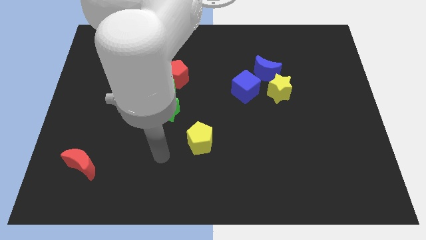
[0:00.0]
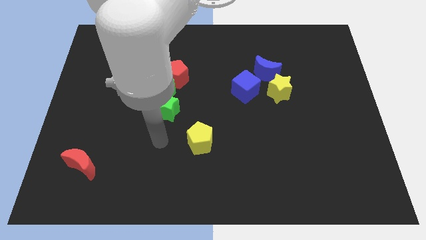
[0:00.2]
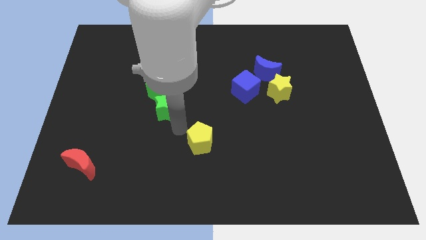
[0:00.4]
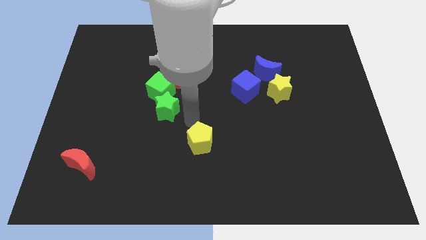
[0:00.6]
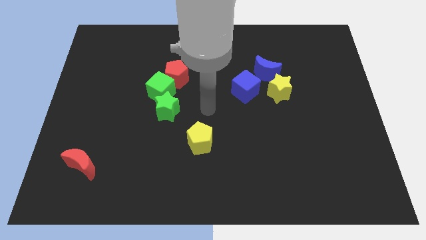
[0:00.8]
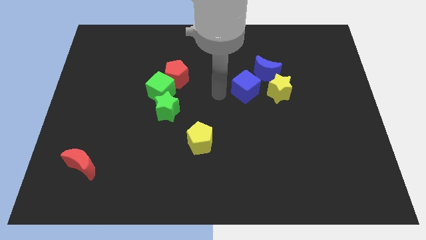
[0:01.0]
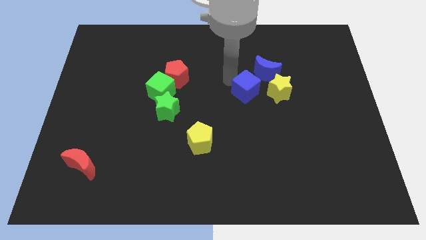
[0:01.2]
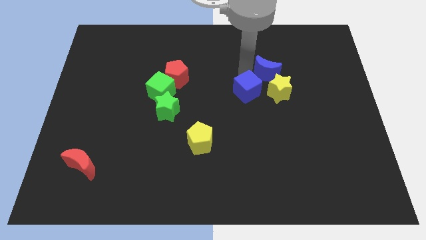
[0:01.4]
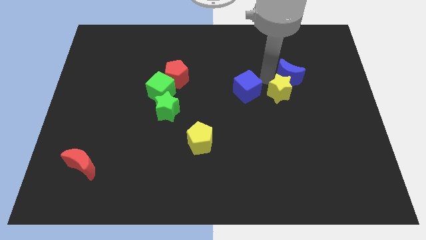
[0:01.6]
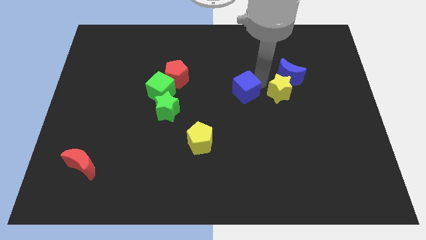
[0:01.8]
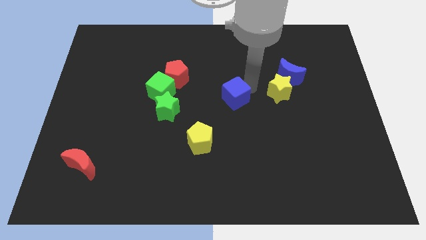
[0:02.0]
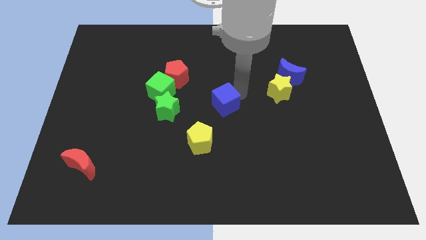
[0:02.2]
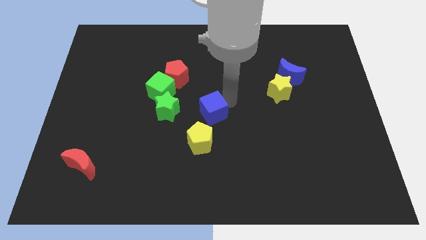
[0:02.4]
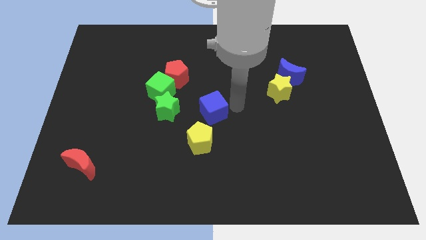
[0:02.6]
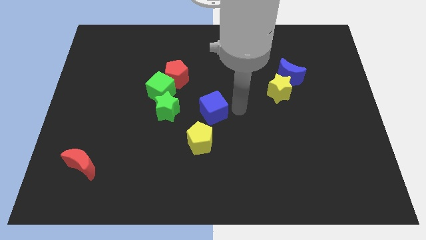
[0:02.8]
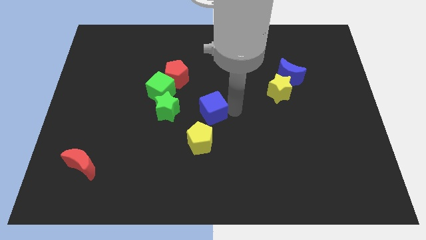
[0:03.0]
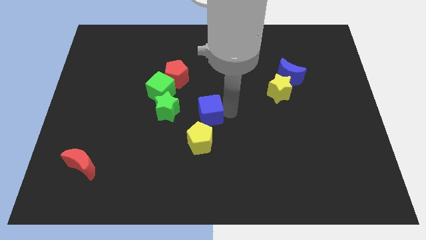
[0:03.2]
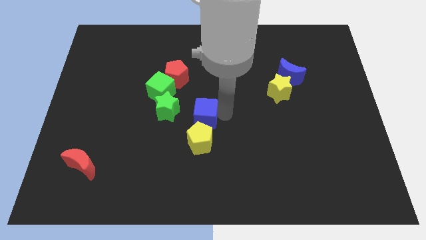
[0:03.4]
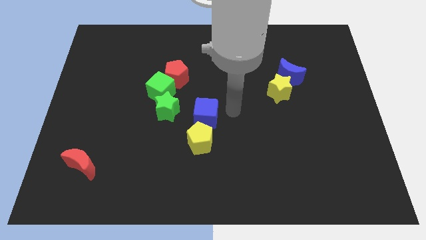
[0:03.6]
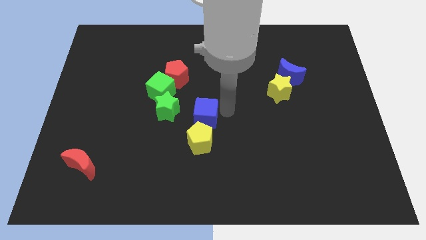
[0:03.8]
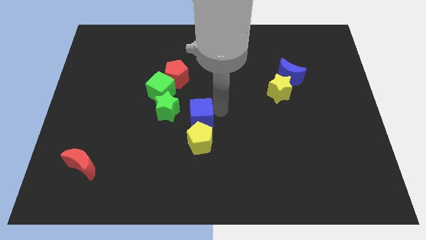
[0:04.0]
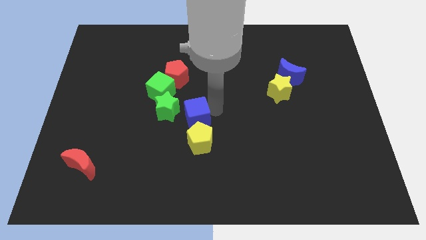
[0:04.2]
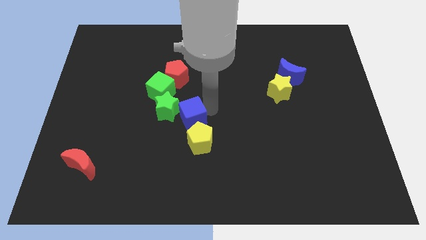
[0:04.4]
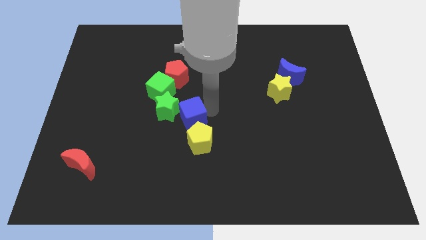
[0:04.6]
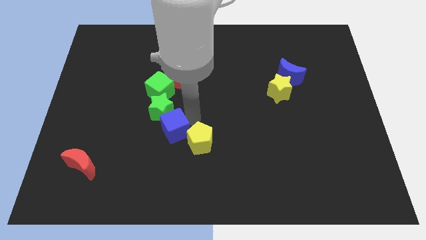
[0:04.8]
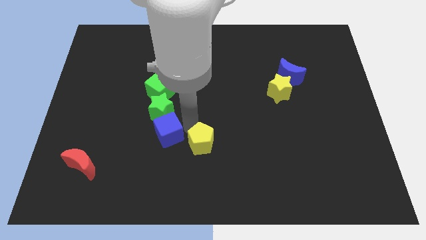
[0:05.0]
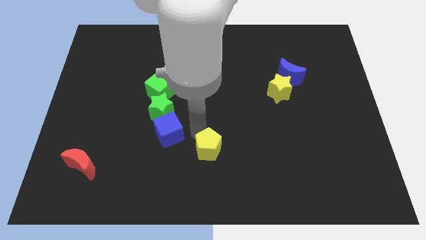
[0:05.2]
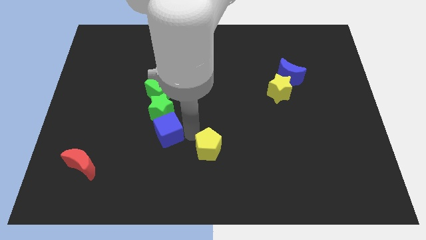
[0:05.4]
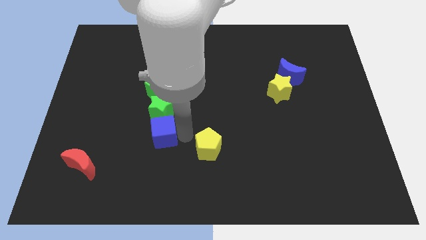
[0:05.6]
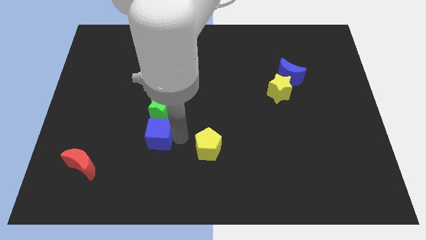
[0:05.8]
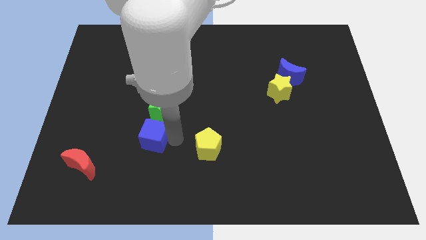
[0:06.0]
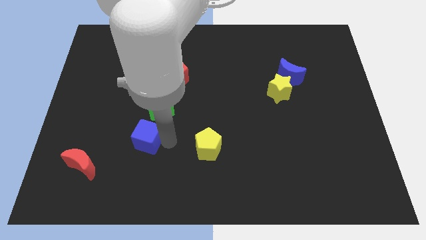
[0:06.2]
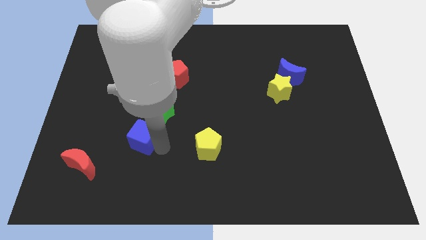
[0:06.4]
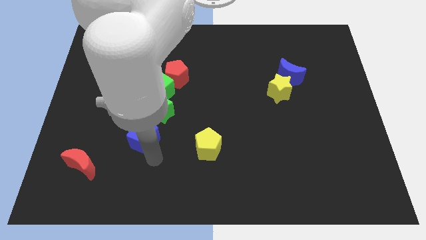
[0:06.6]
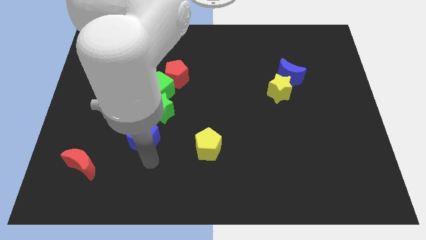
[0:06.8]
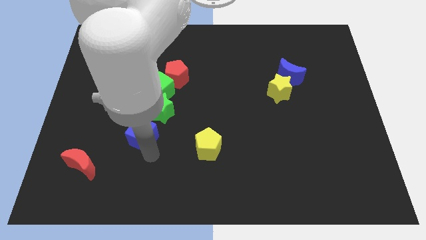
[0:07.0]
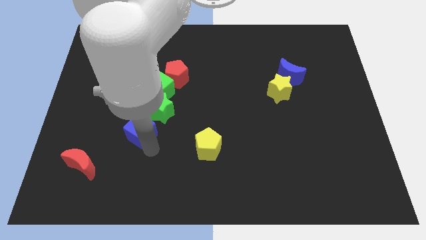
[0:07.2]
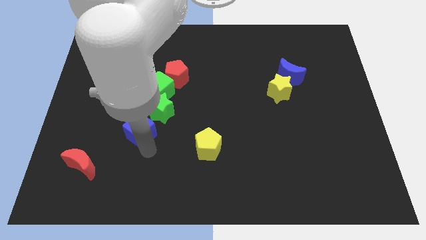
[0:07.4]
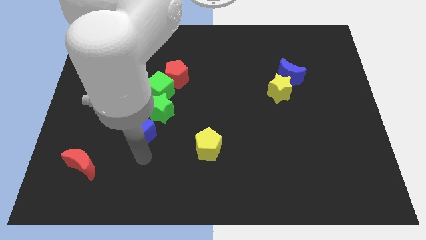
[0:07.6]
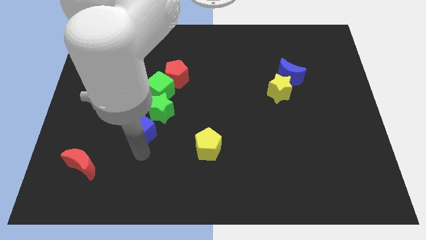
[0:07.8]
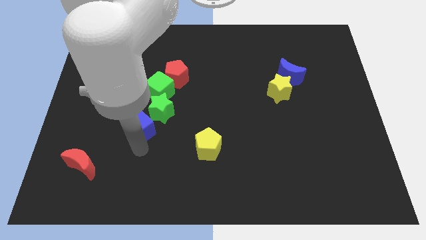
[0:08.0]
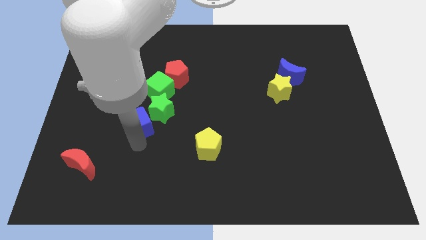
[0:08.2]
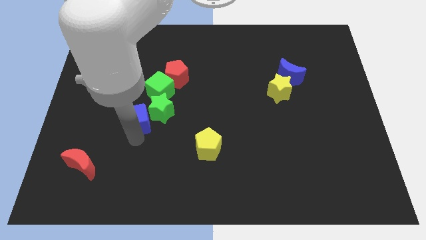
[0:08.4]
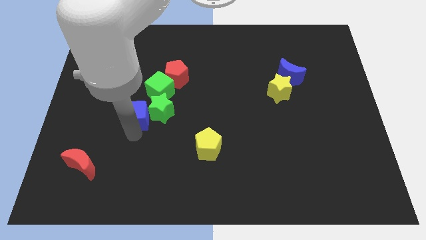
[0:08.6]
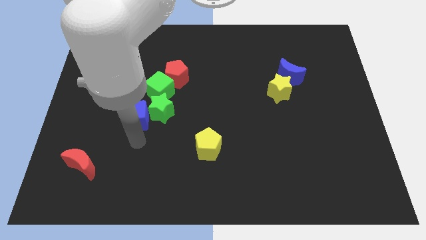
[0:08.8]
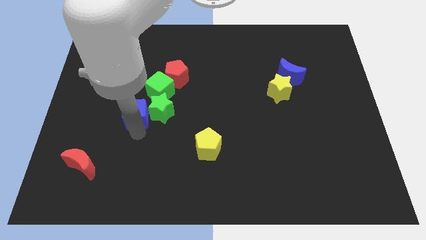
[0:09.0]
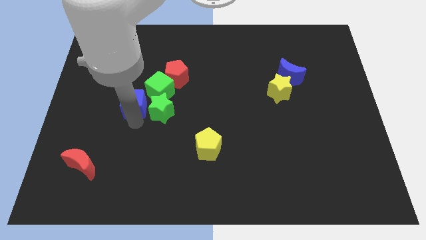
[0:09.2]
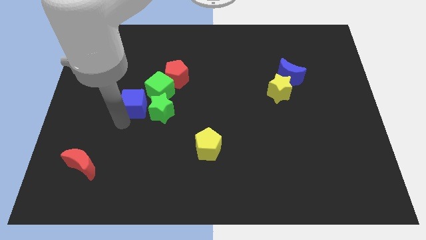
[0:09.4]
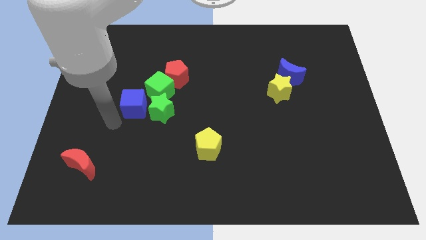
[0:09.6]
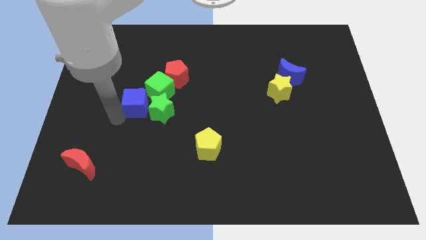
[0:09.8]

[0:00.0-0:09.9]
slide the blue cube to the bottom left of the red pentagon

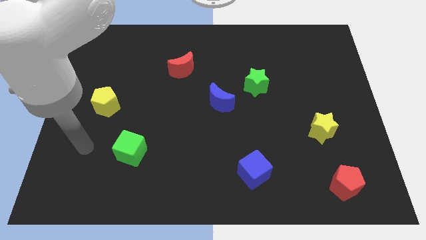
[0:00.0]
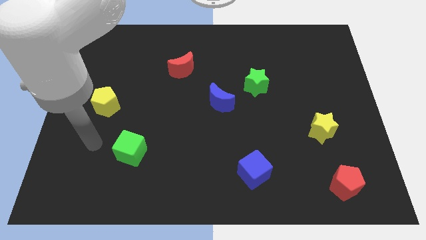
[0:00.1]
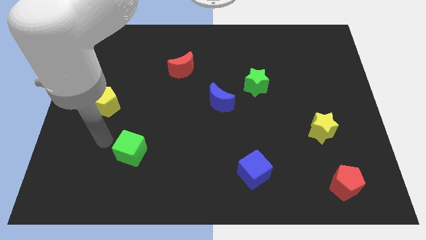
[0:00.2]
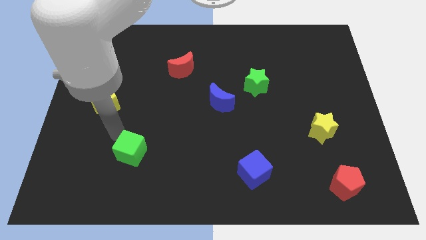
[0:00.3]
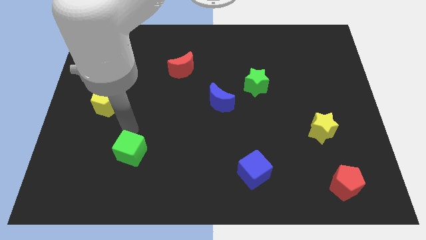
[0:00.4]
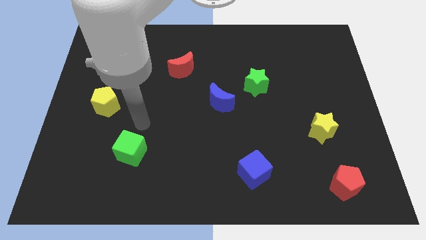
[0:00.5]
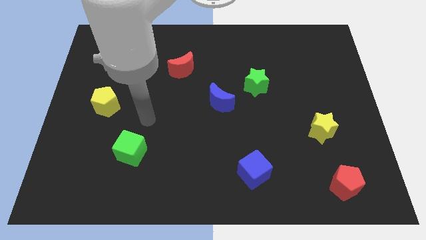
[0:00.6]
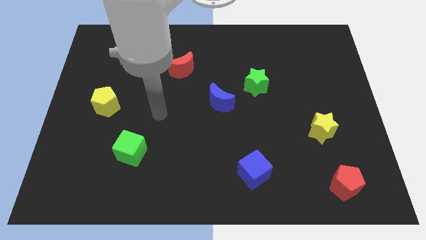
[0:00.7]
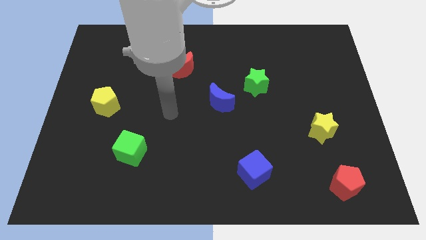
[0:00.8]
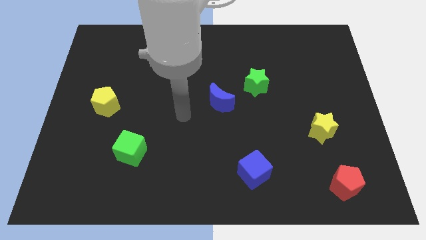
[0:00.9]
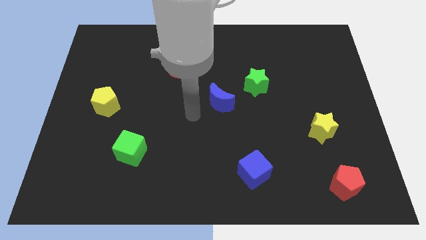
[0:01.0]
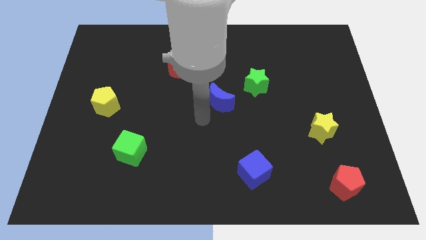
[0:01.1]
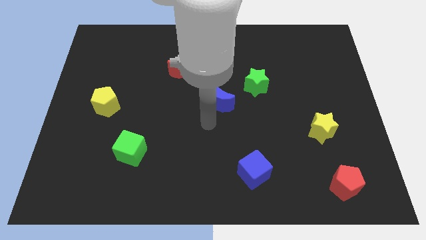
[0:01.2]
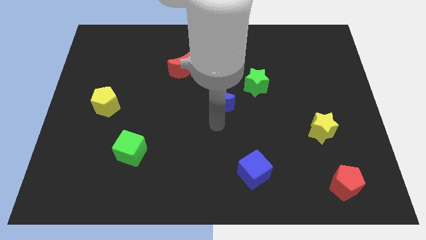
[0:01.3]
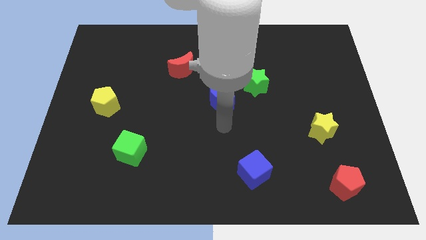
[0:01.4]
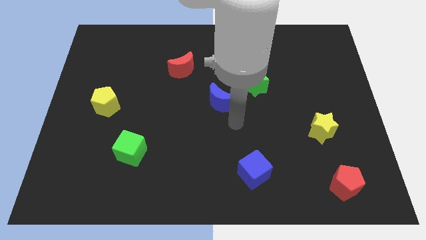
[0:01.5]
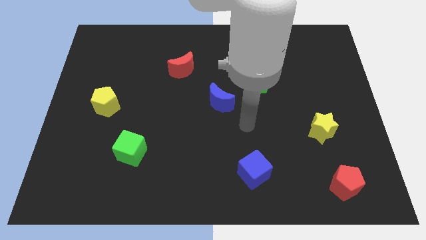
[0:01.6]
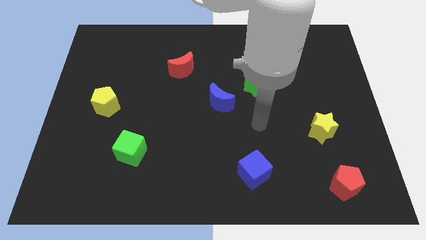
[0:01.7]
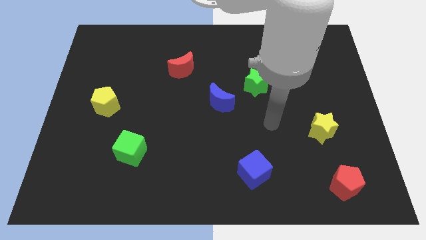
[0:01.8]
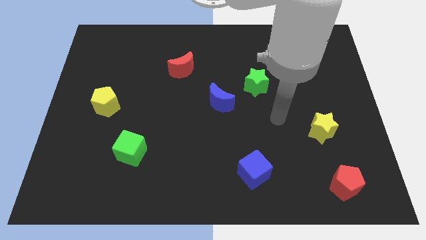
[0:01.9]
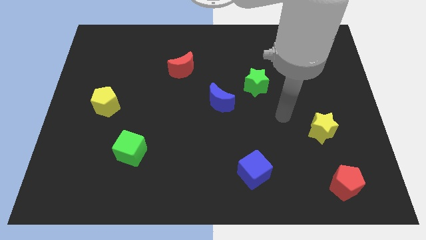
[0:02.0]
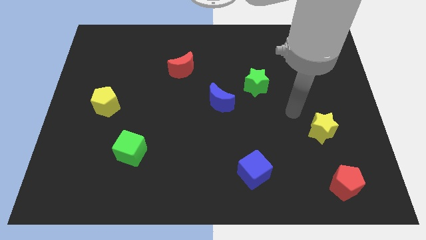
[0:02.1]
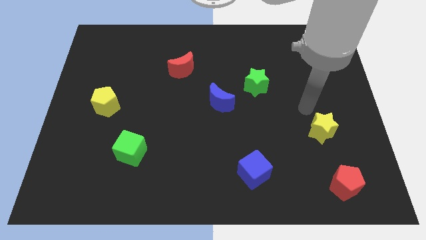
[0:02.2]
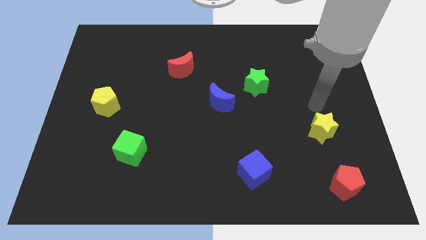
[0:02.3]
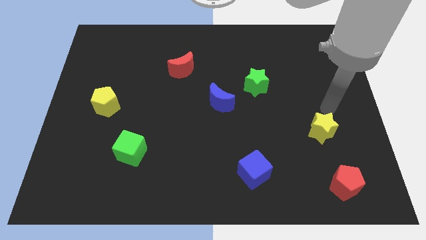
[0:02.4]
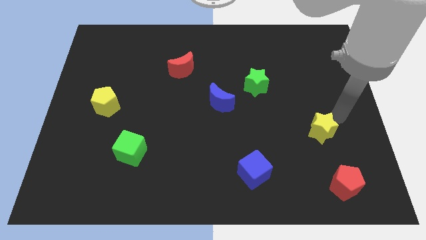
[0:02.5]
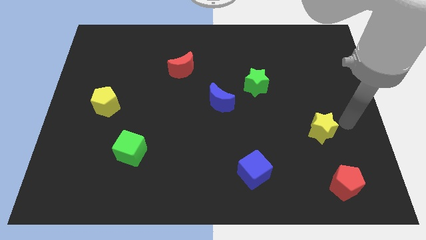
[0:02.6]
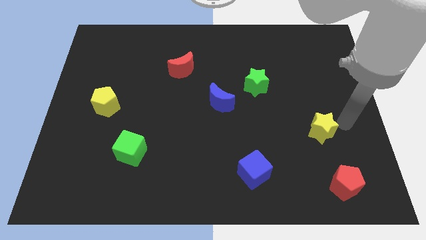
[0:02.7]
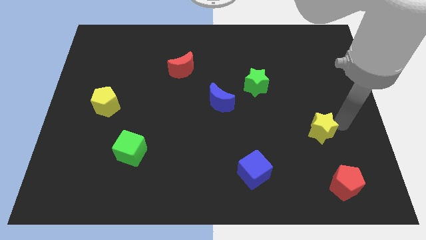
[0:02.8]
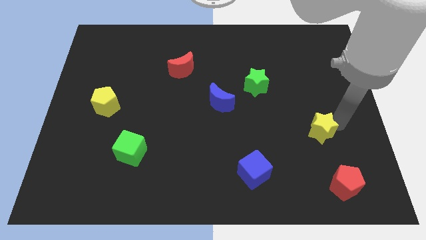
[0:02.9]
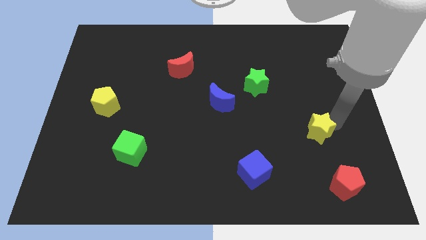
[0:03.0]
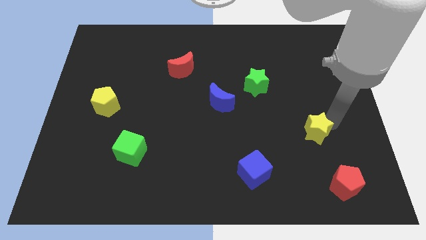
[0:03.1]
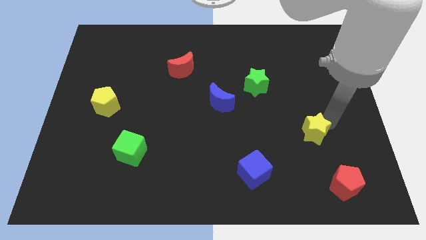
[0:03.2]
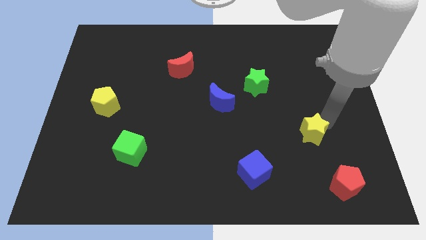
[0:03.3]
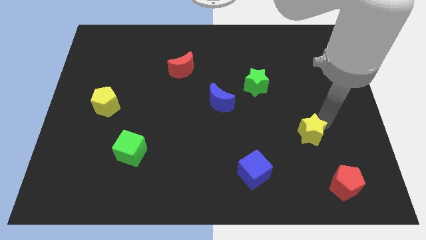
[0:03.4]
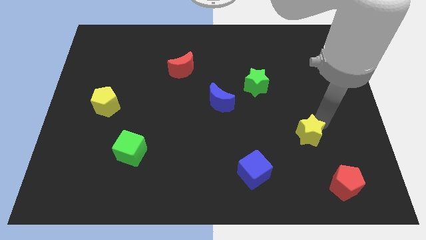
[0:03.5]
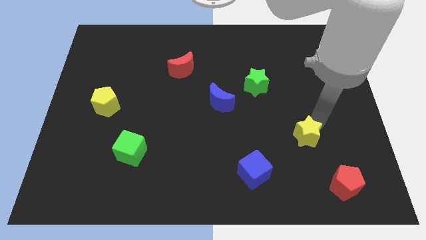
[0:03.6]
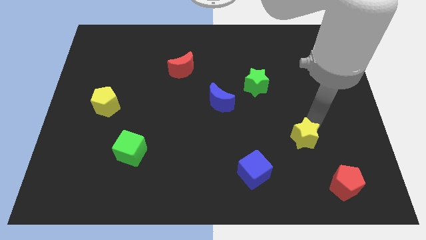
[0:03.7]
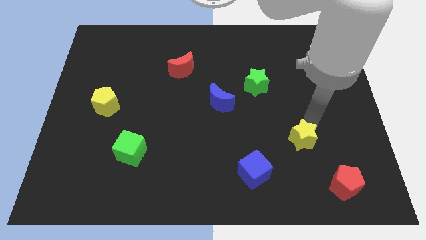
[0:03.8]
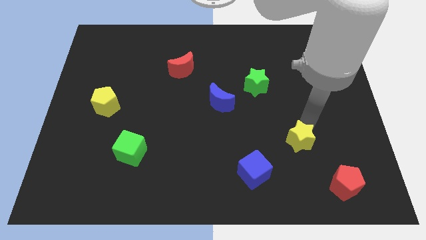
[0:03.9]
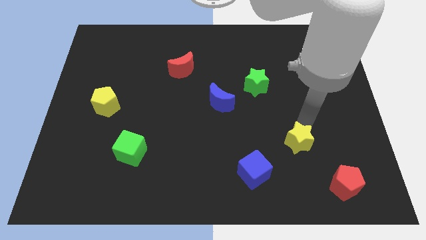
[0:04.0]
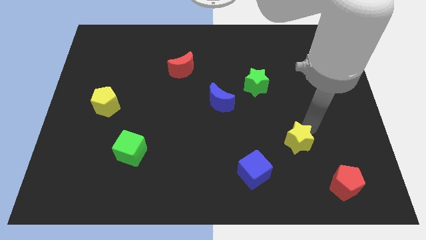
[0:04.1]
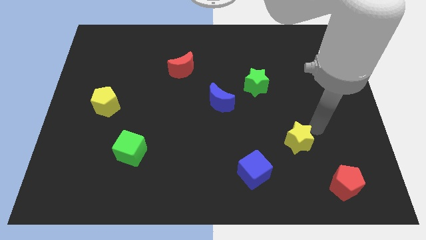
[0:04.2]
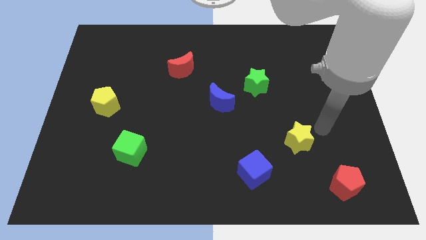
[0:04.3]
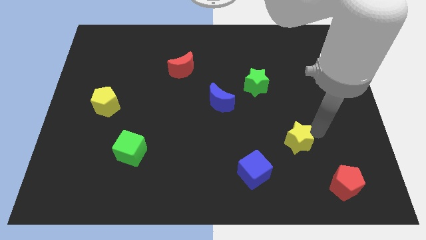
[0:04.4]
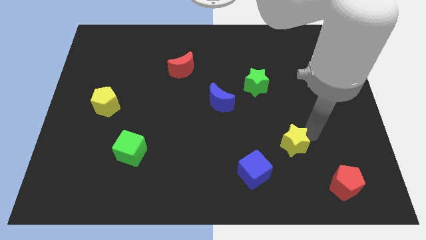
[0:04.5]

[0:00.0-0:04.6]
slide the yellow star diagonally up and to the right of the blue cube
